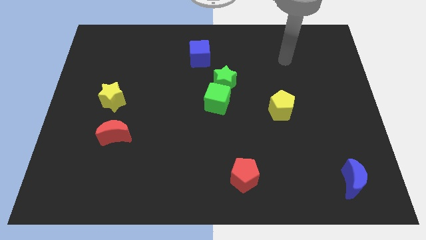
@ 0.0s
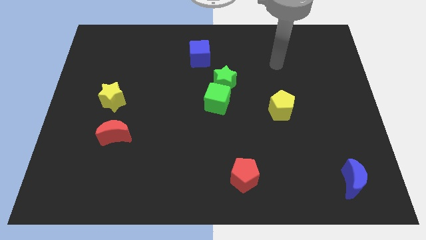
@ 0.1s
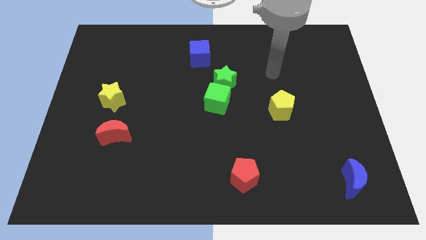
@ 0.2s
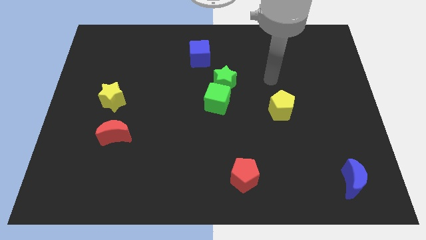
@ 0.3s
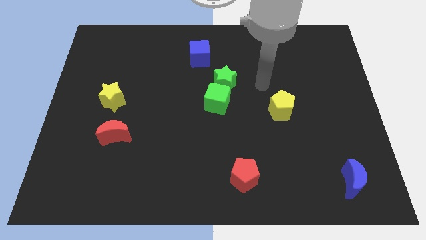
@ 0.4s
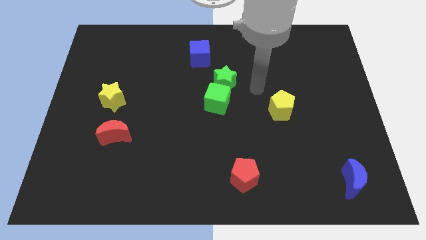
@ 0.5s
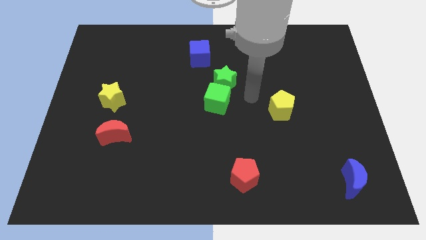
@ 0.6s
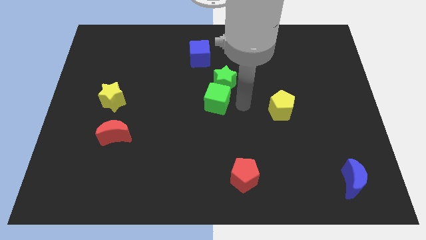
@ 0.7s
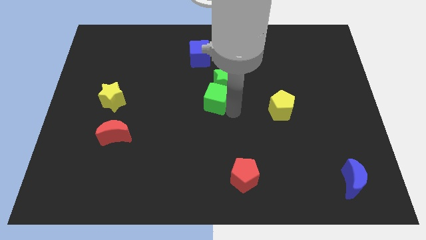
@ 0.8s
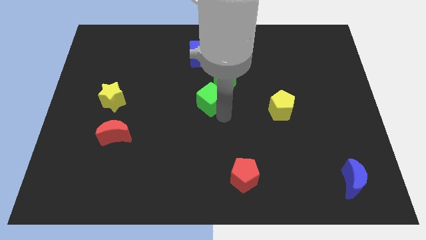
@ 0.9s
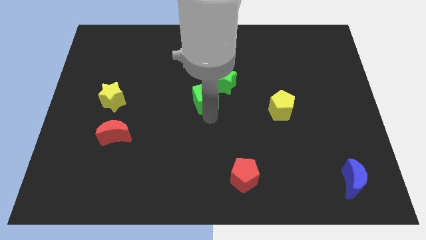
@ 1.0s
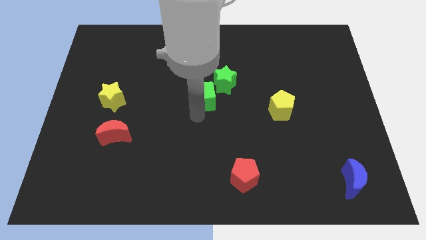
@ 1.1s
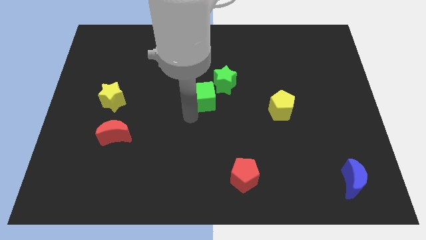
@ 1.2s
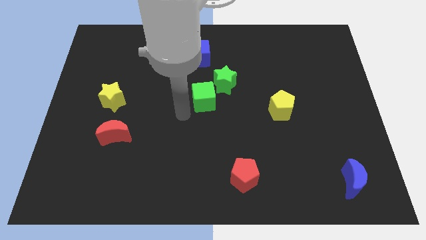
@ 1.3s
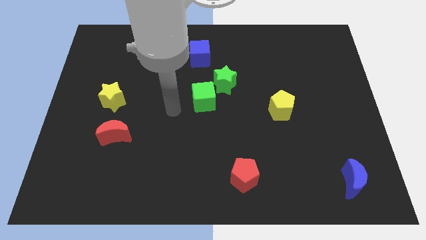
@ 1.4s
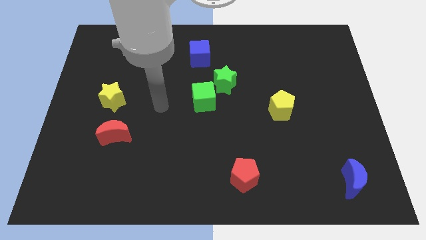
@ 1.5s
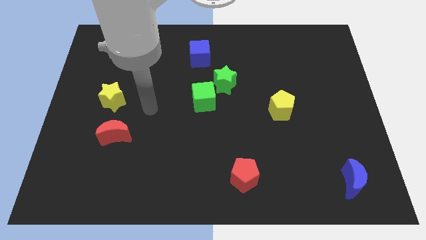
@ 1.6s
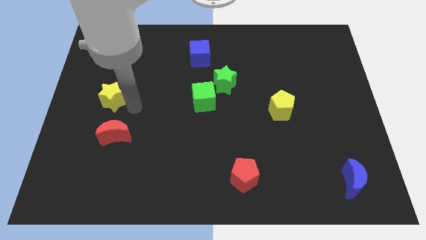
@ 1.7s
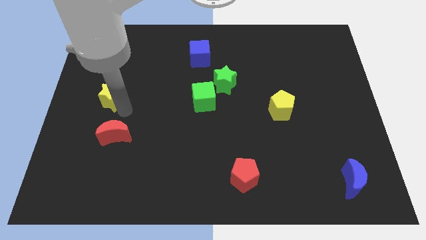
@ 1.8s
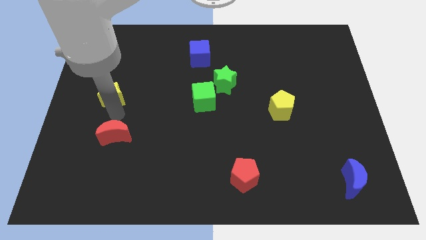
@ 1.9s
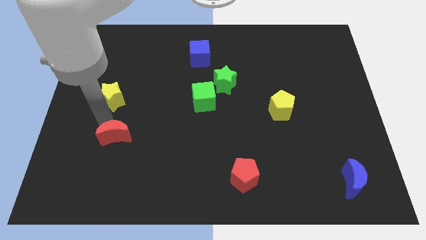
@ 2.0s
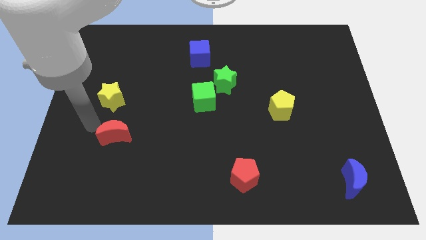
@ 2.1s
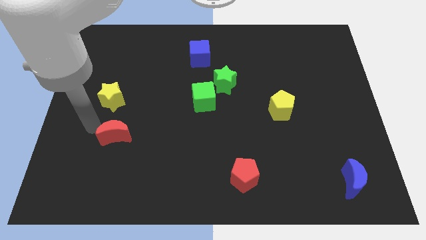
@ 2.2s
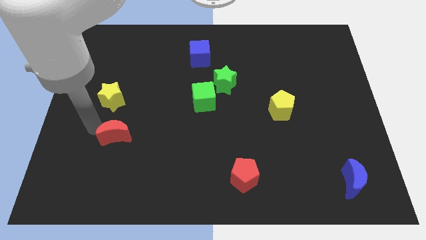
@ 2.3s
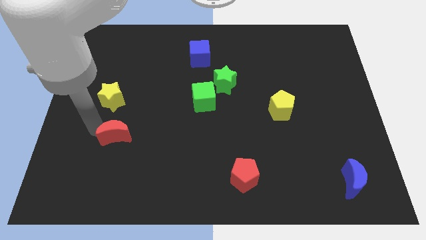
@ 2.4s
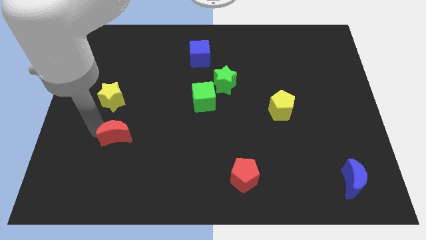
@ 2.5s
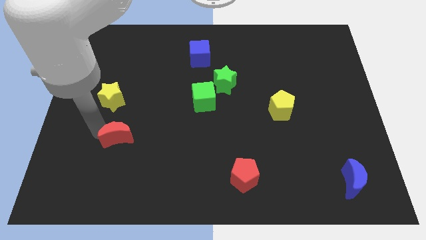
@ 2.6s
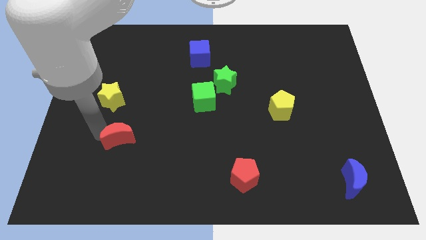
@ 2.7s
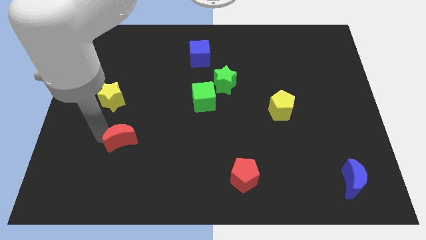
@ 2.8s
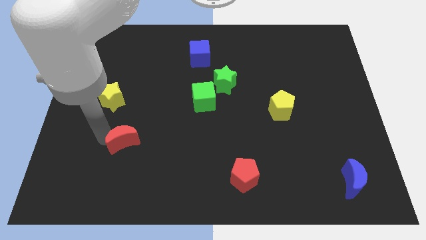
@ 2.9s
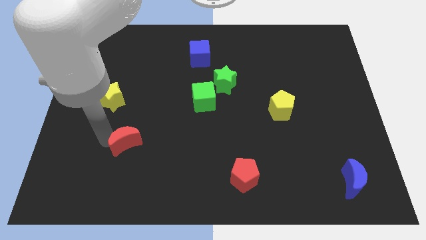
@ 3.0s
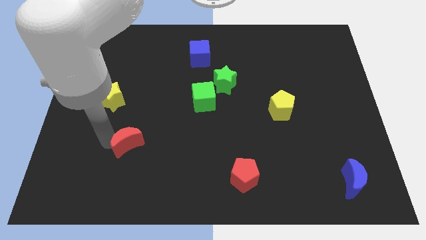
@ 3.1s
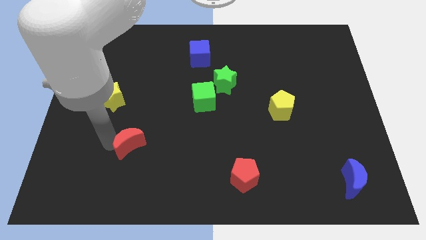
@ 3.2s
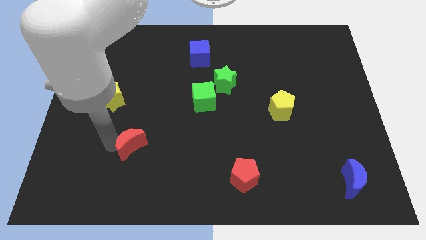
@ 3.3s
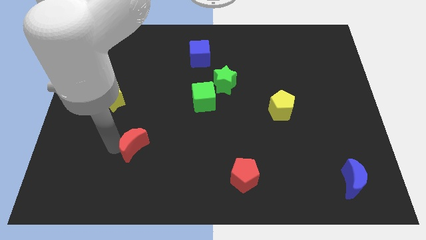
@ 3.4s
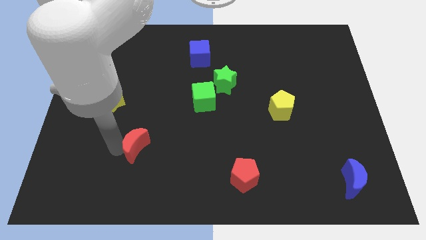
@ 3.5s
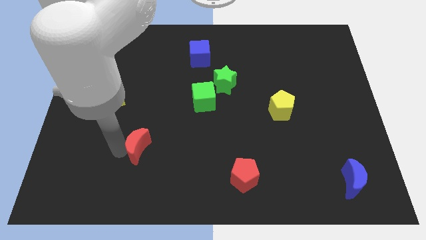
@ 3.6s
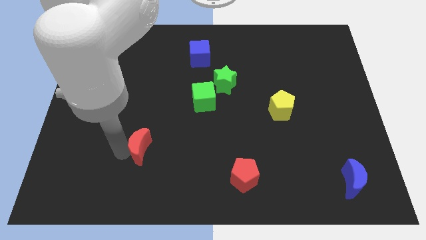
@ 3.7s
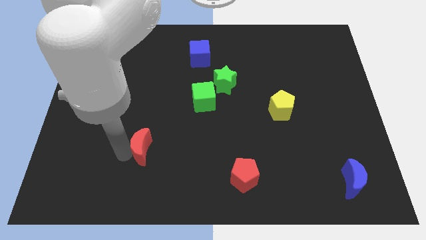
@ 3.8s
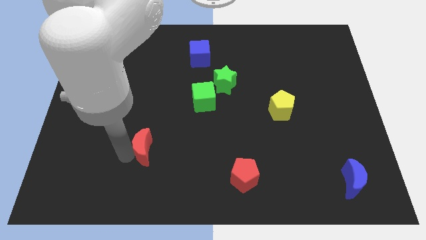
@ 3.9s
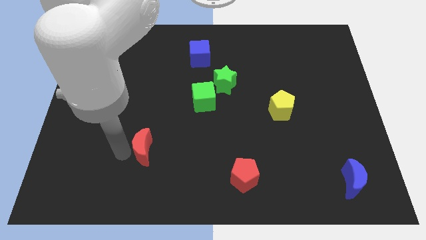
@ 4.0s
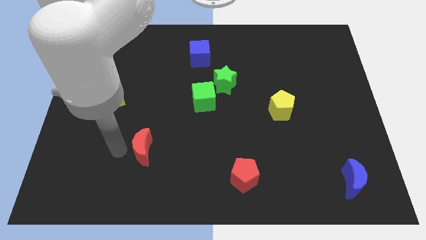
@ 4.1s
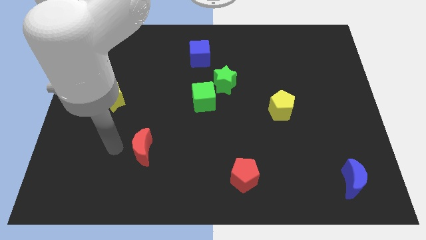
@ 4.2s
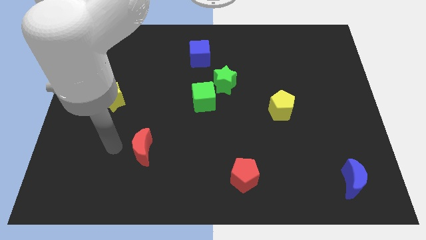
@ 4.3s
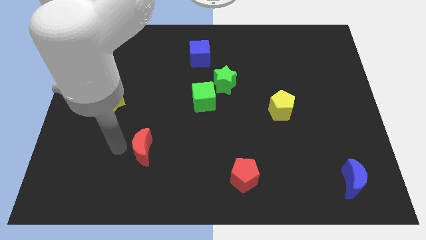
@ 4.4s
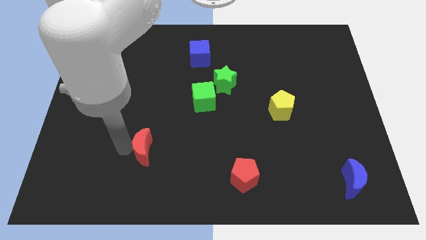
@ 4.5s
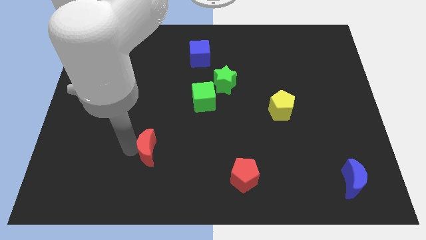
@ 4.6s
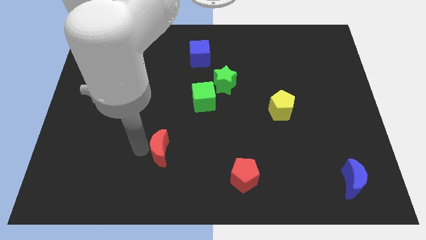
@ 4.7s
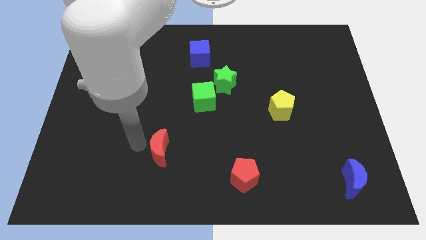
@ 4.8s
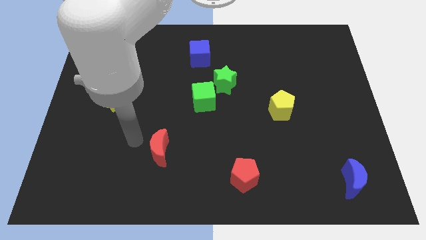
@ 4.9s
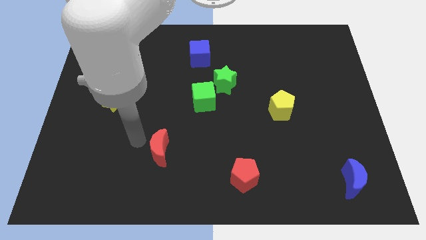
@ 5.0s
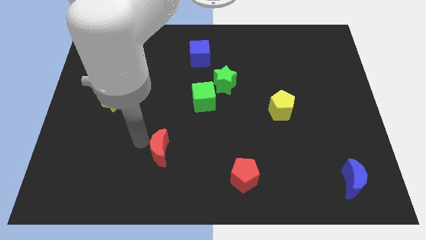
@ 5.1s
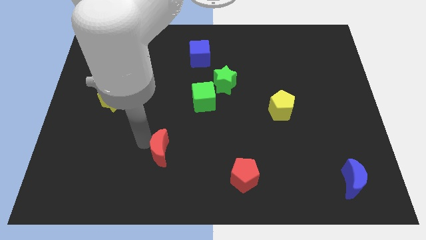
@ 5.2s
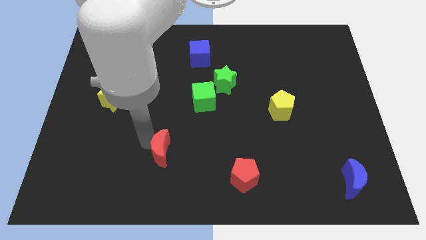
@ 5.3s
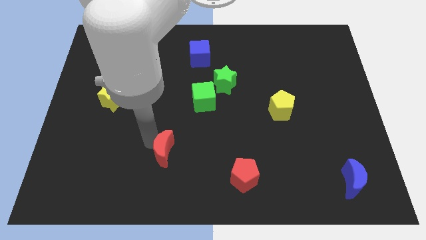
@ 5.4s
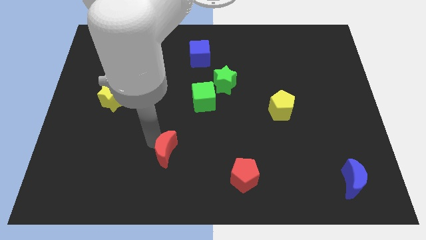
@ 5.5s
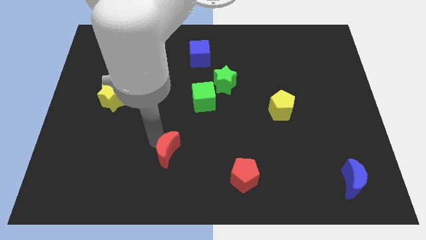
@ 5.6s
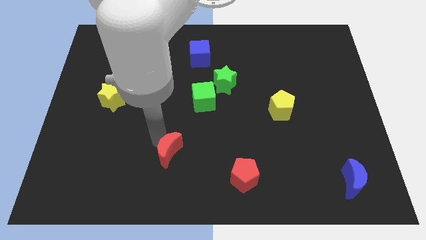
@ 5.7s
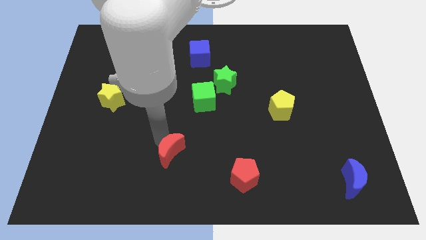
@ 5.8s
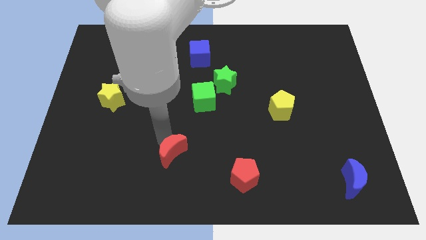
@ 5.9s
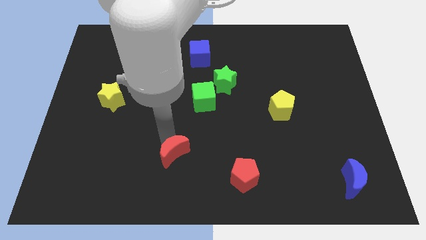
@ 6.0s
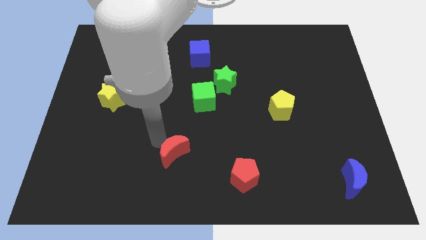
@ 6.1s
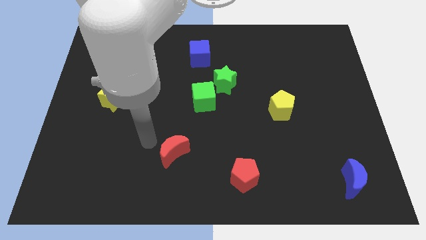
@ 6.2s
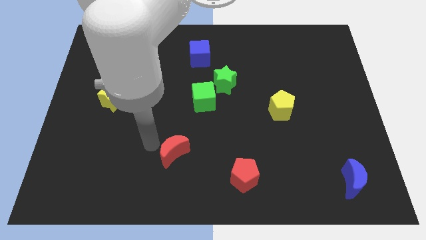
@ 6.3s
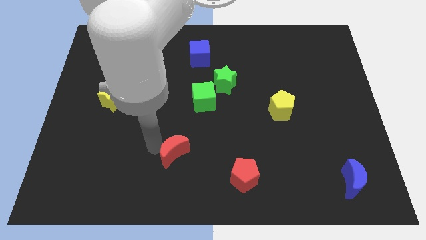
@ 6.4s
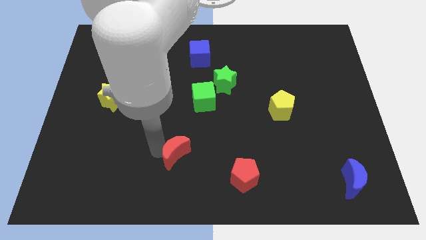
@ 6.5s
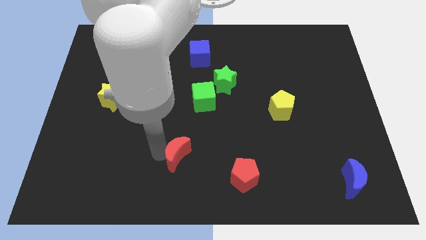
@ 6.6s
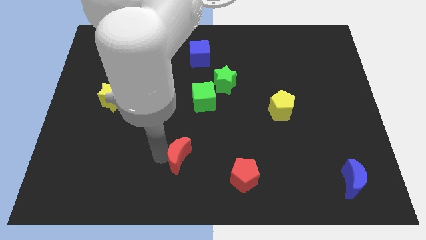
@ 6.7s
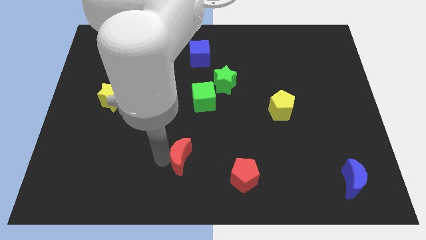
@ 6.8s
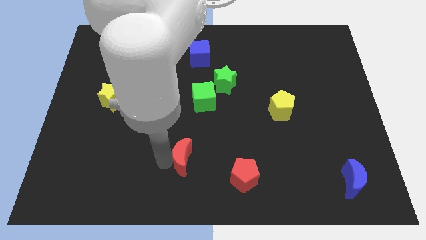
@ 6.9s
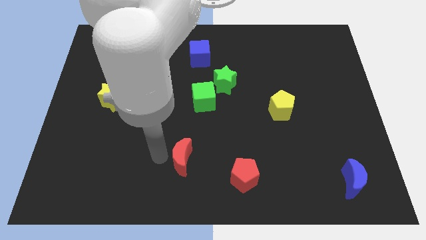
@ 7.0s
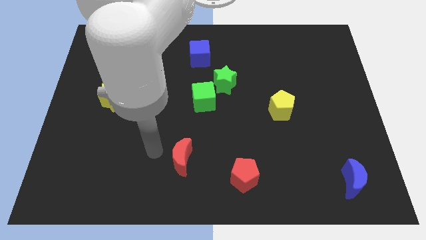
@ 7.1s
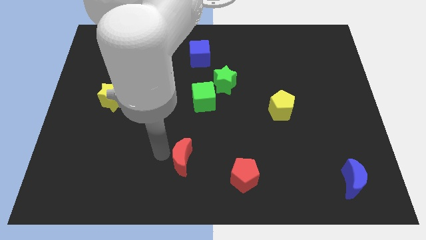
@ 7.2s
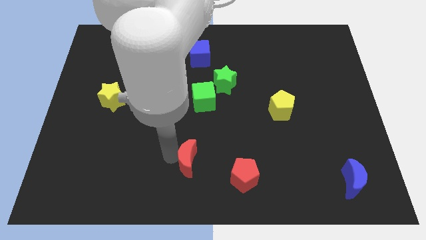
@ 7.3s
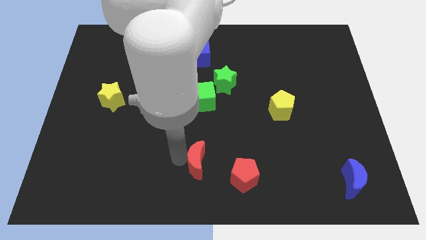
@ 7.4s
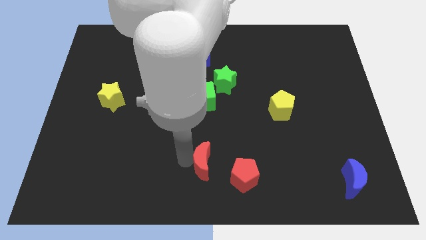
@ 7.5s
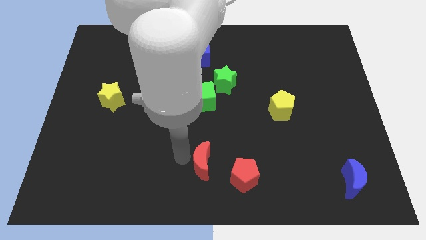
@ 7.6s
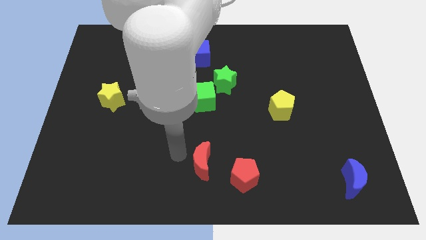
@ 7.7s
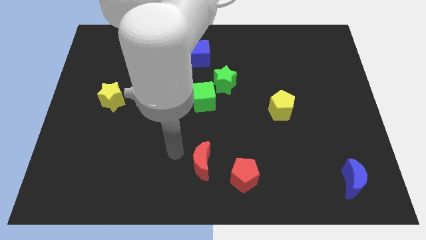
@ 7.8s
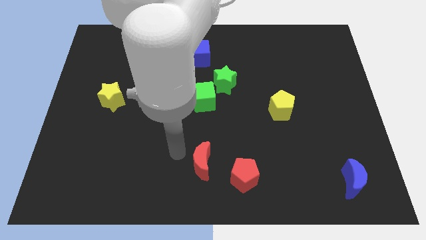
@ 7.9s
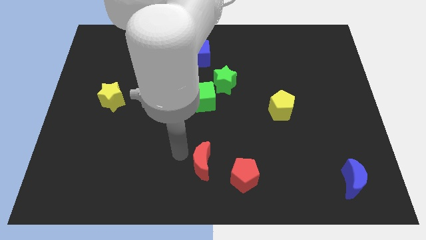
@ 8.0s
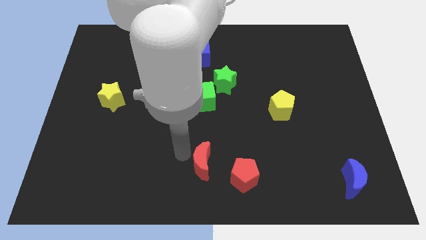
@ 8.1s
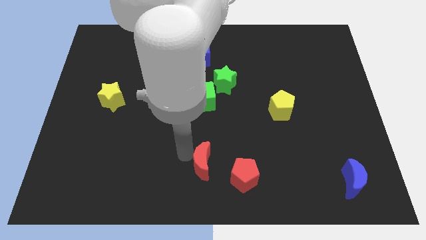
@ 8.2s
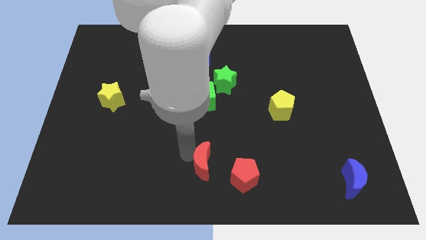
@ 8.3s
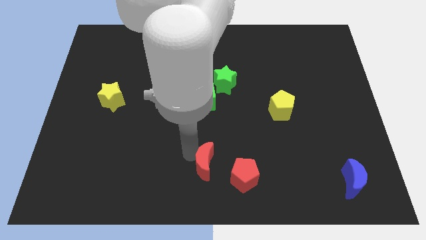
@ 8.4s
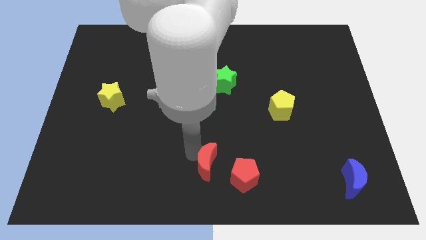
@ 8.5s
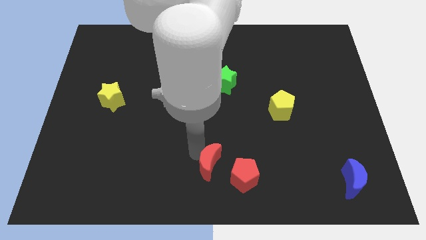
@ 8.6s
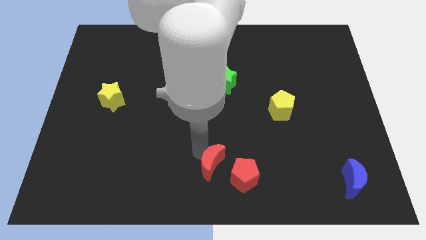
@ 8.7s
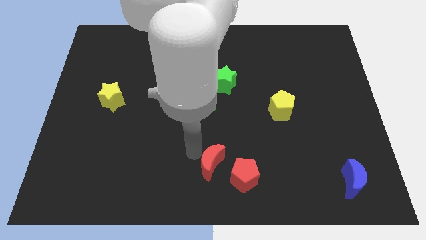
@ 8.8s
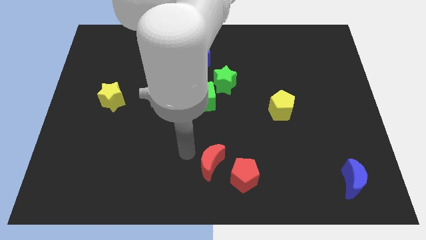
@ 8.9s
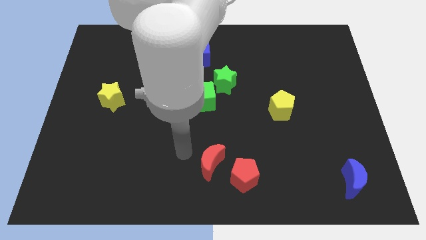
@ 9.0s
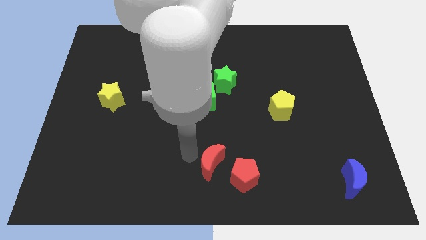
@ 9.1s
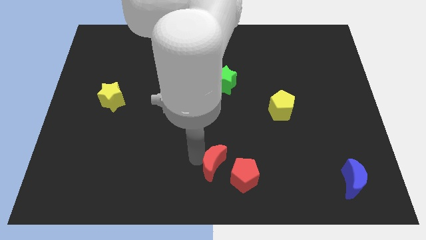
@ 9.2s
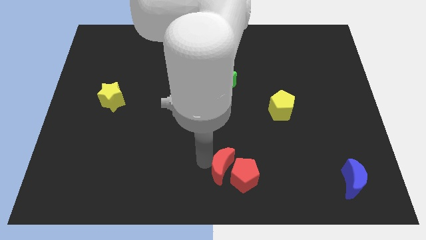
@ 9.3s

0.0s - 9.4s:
move the red moon to the red pentagon
